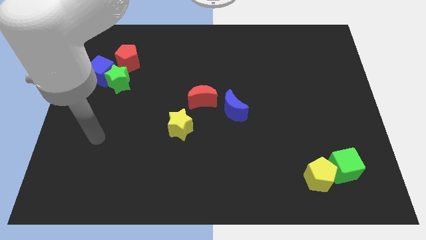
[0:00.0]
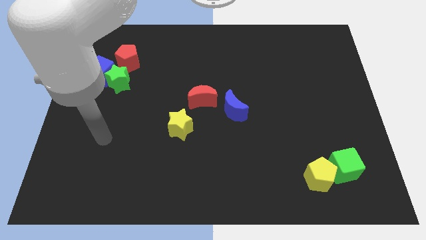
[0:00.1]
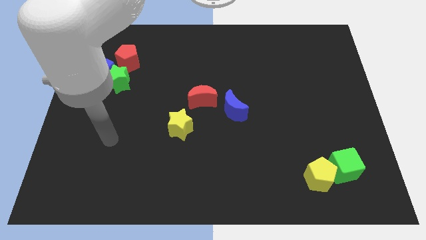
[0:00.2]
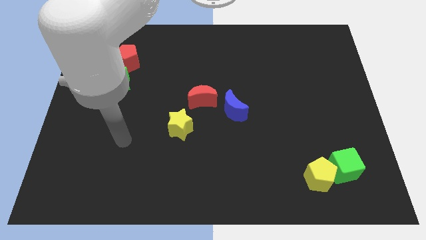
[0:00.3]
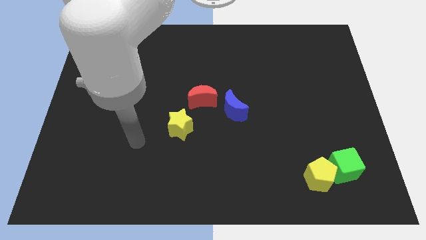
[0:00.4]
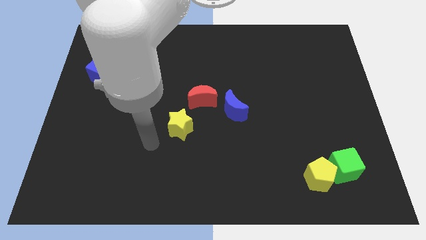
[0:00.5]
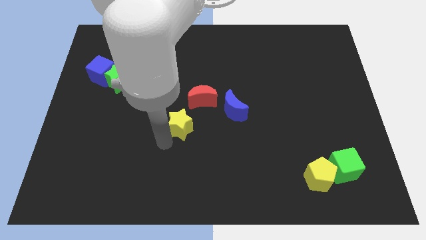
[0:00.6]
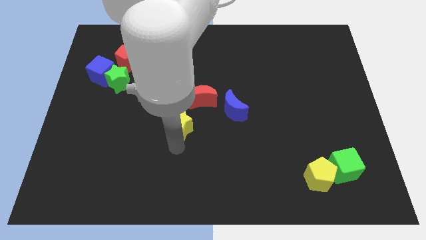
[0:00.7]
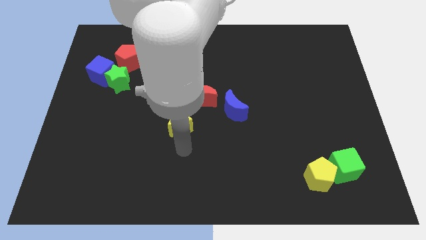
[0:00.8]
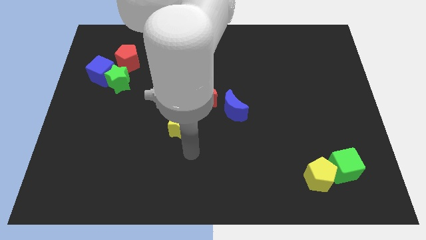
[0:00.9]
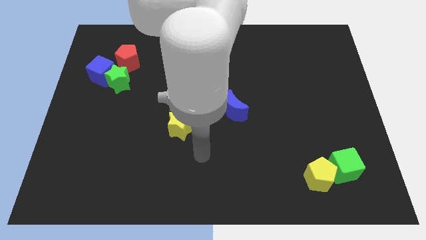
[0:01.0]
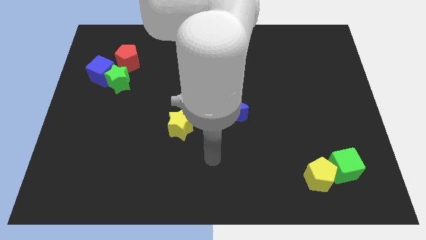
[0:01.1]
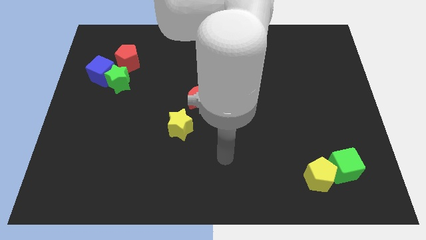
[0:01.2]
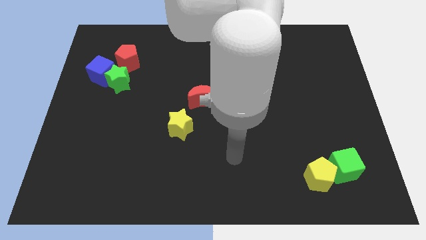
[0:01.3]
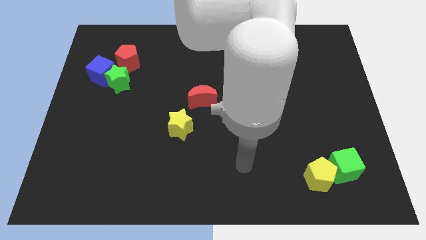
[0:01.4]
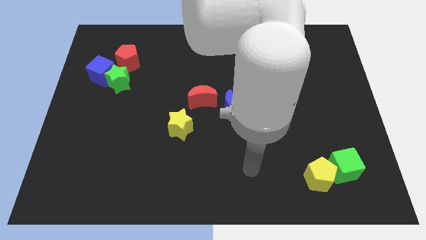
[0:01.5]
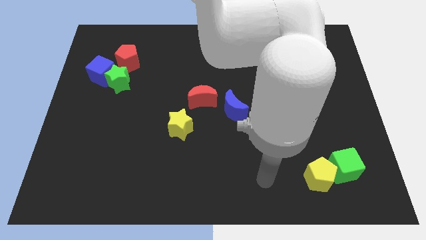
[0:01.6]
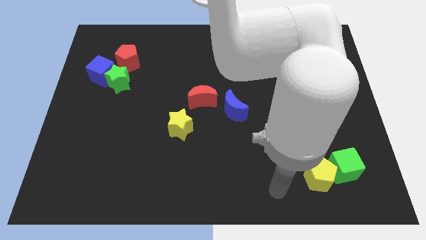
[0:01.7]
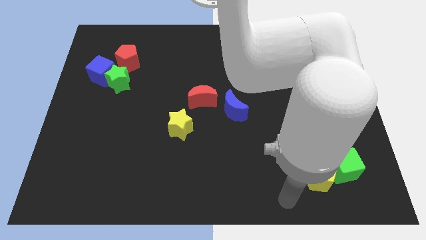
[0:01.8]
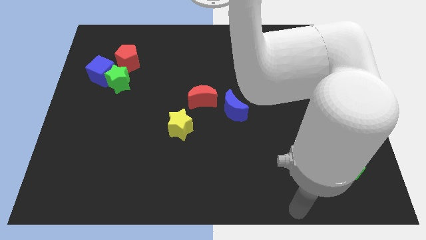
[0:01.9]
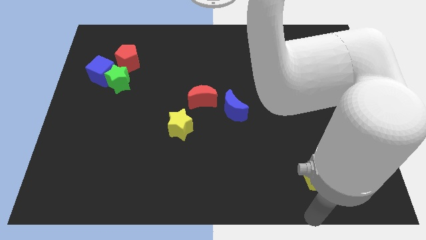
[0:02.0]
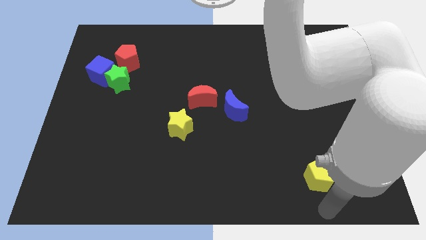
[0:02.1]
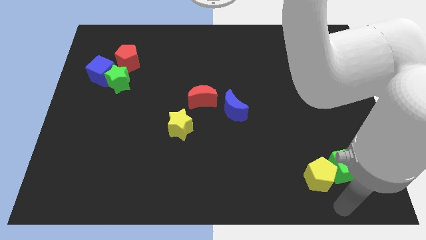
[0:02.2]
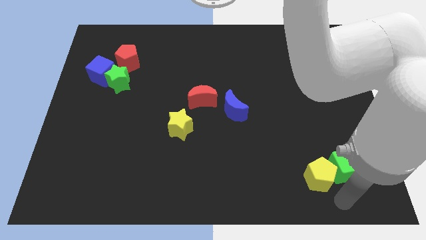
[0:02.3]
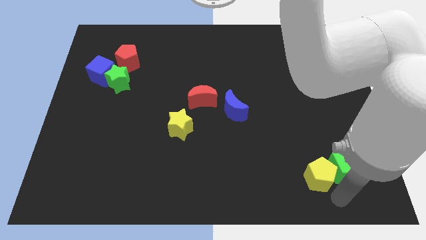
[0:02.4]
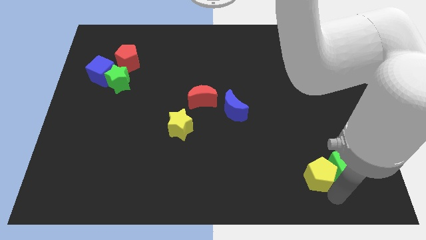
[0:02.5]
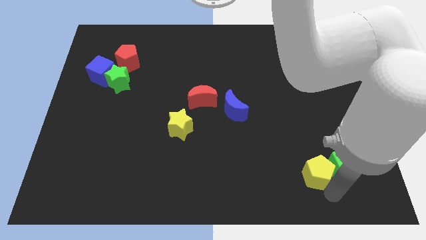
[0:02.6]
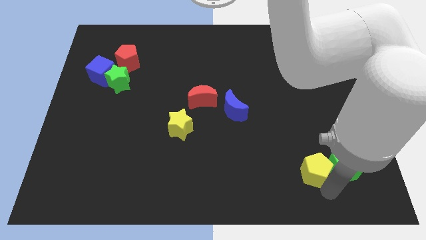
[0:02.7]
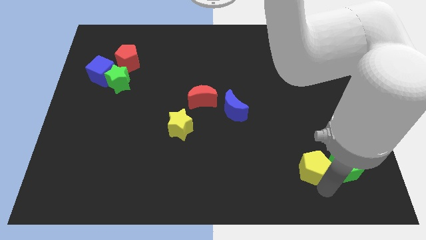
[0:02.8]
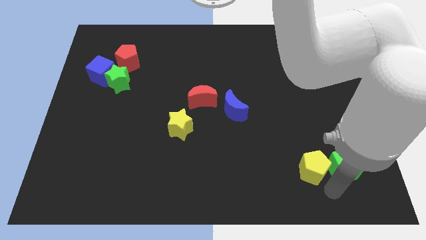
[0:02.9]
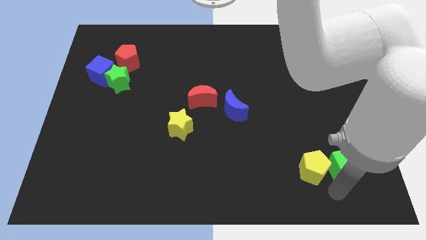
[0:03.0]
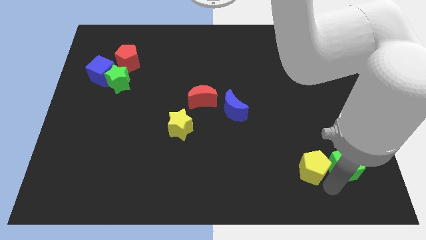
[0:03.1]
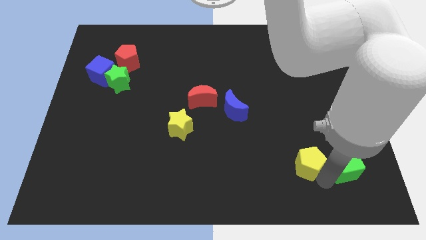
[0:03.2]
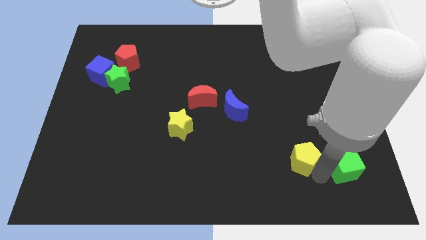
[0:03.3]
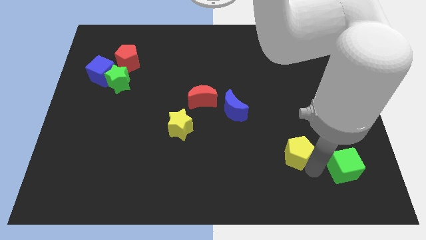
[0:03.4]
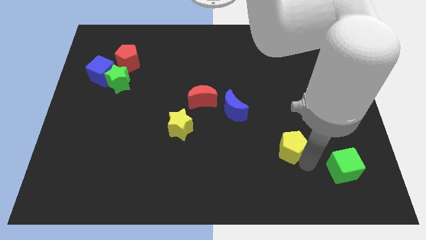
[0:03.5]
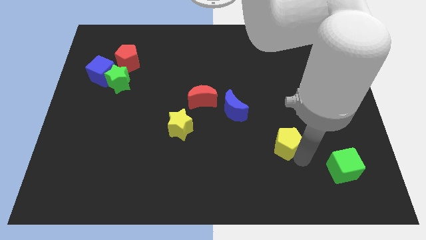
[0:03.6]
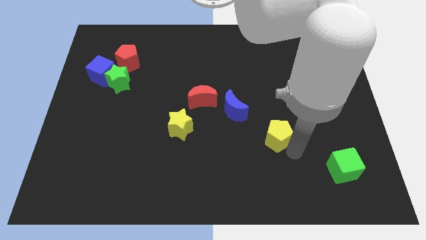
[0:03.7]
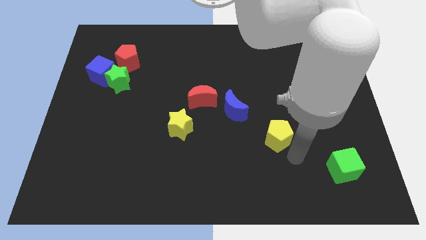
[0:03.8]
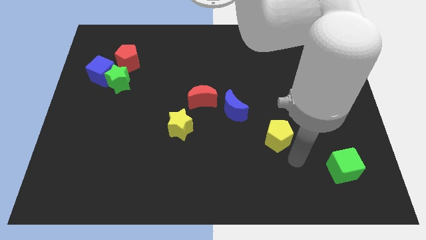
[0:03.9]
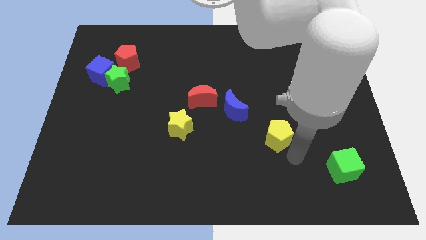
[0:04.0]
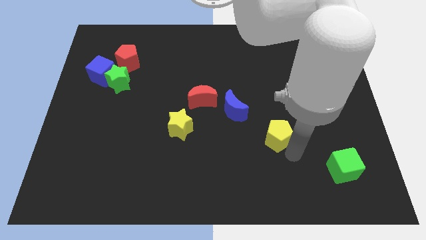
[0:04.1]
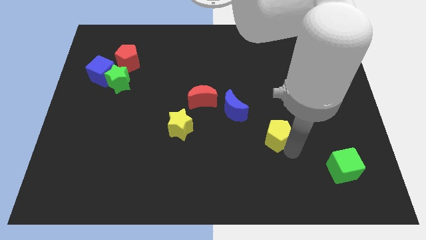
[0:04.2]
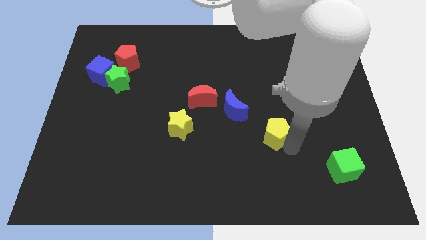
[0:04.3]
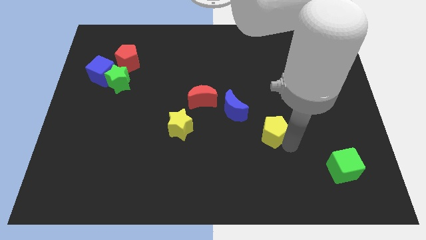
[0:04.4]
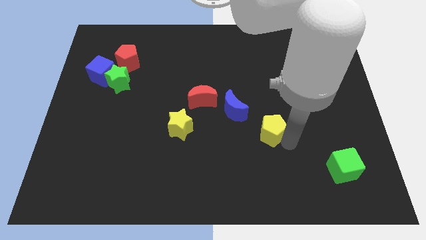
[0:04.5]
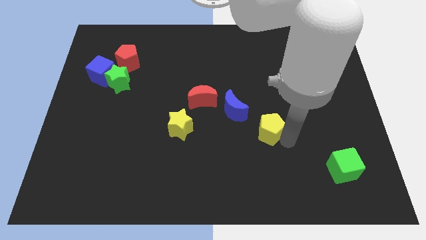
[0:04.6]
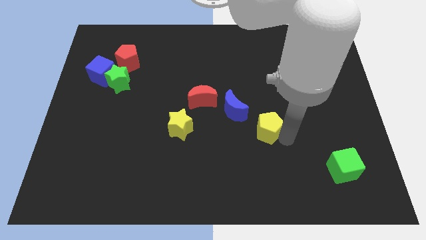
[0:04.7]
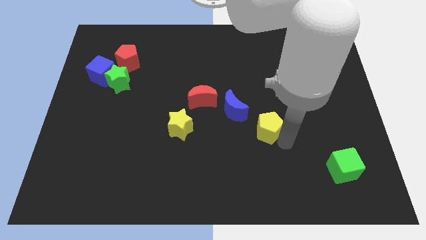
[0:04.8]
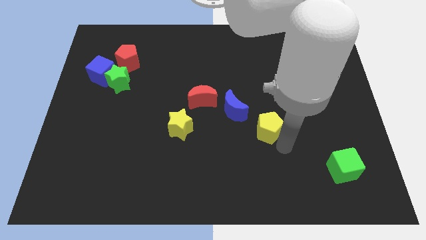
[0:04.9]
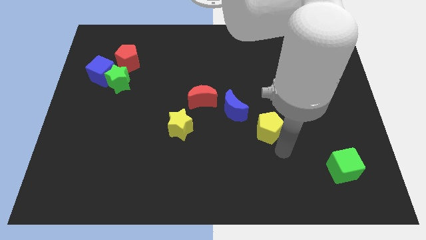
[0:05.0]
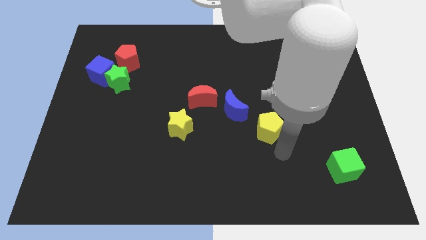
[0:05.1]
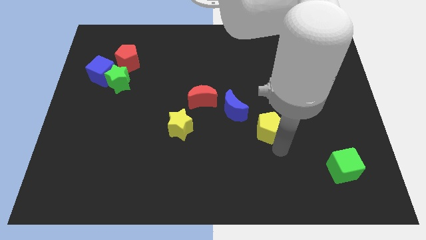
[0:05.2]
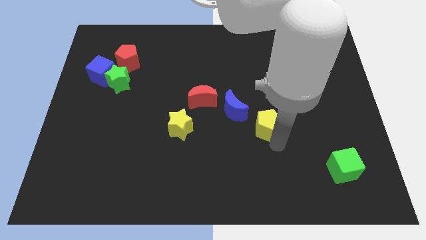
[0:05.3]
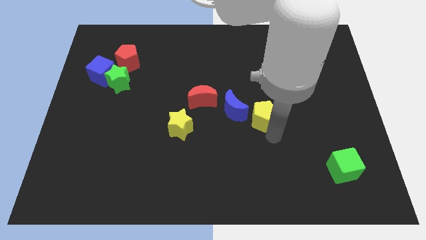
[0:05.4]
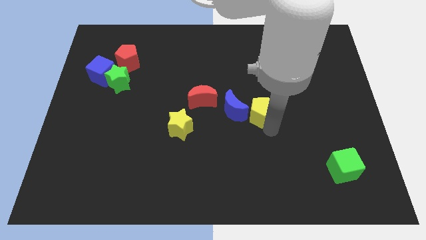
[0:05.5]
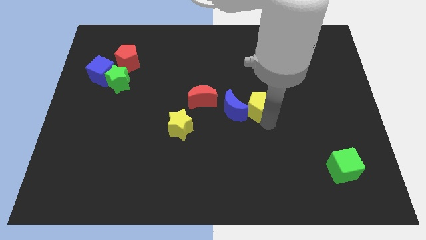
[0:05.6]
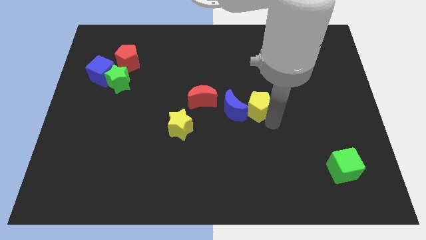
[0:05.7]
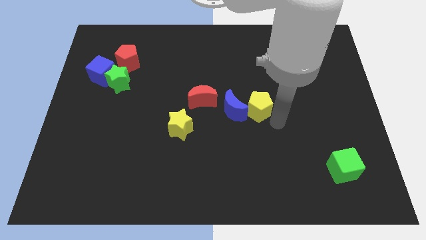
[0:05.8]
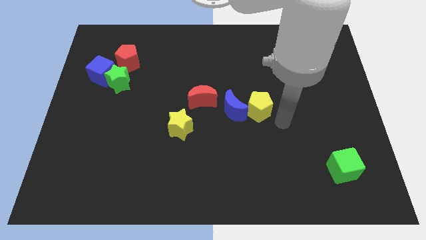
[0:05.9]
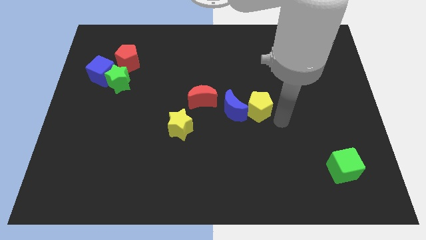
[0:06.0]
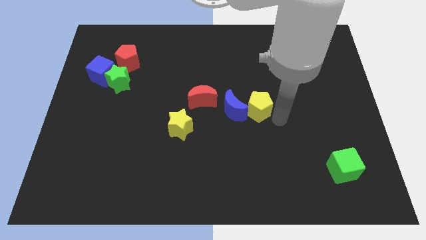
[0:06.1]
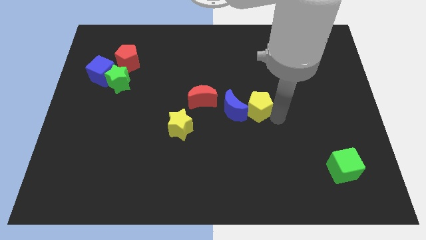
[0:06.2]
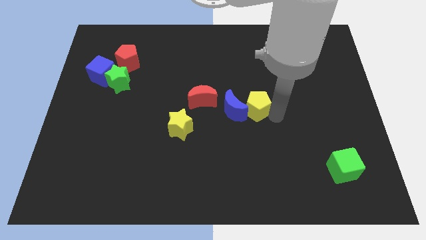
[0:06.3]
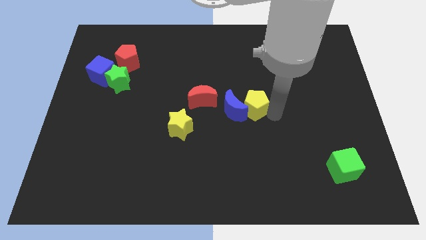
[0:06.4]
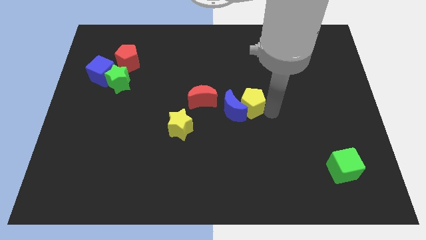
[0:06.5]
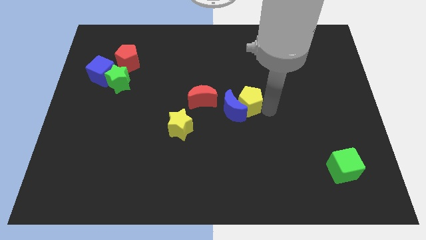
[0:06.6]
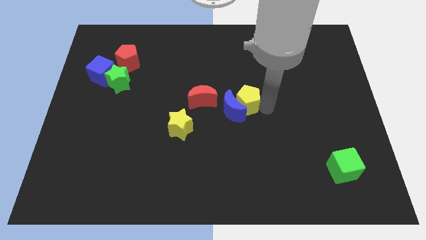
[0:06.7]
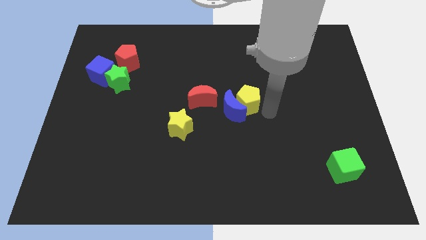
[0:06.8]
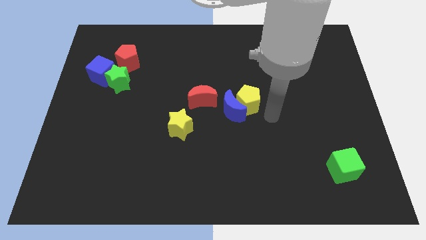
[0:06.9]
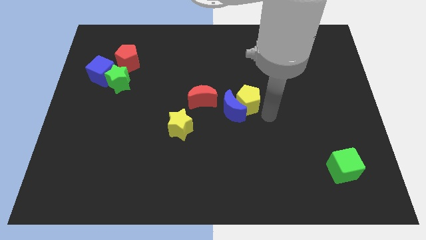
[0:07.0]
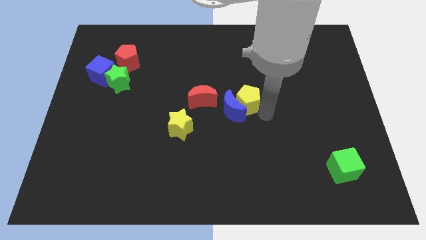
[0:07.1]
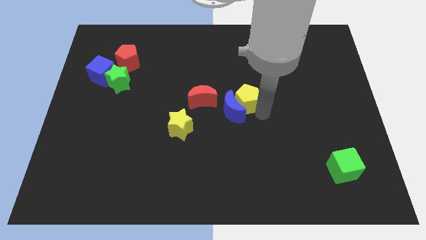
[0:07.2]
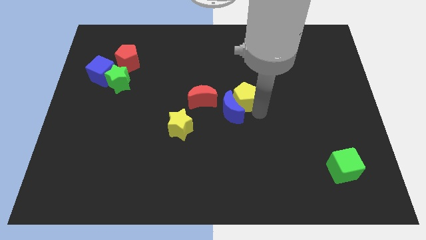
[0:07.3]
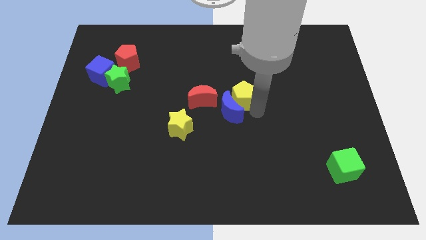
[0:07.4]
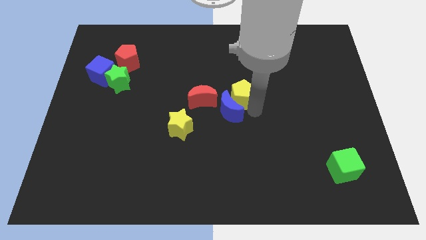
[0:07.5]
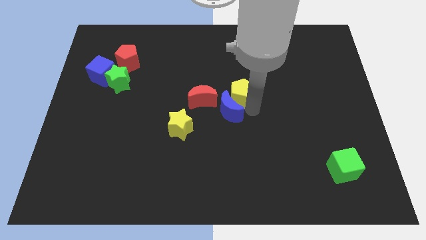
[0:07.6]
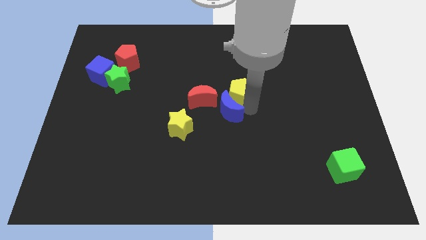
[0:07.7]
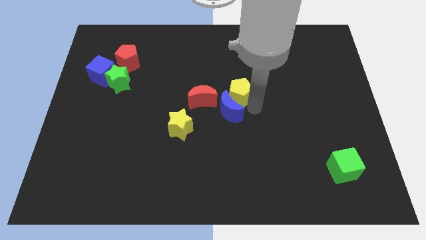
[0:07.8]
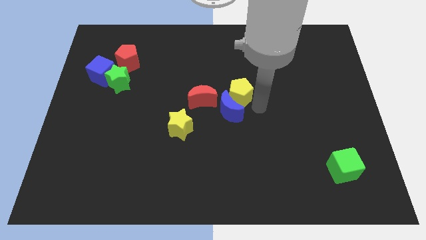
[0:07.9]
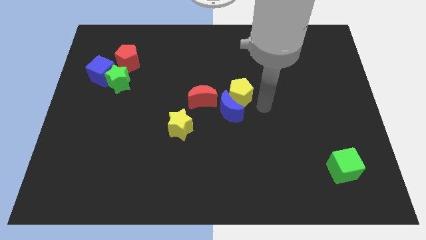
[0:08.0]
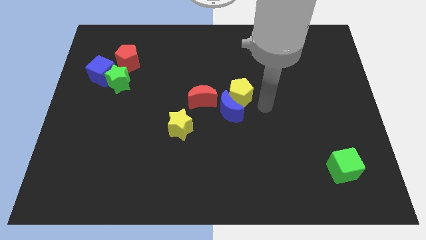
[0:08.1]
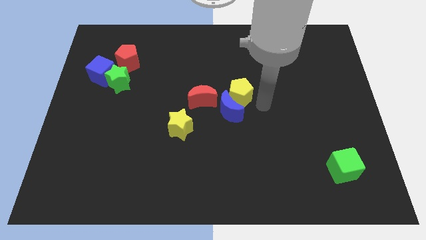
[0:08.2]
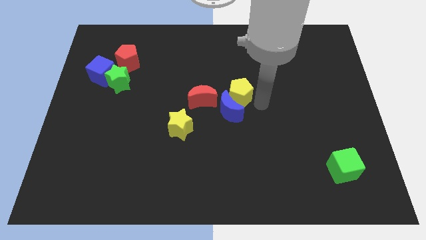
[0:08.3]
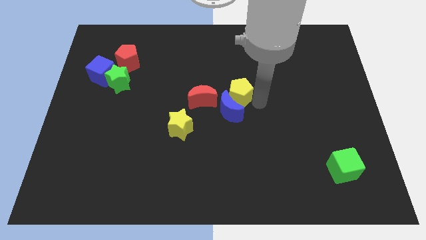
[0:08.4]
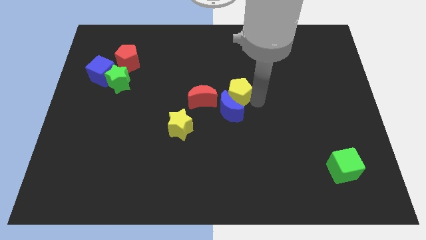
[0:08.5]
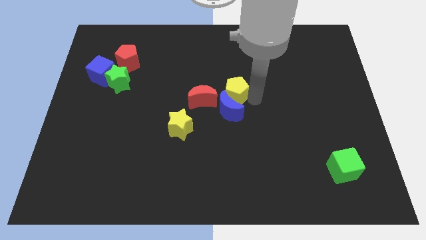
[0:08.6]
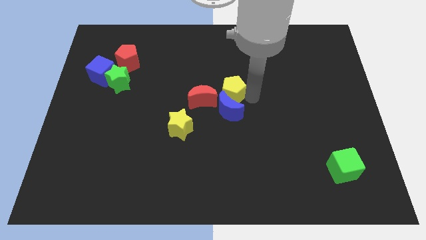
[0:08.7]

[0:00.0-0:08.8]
push the yellow pentagon diagonally up and to the left of the blue moon
